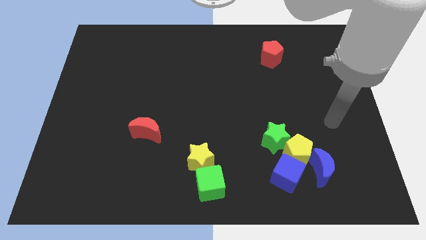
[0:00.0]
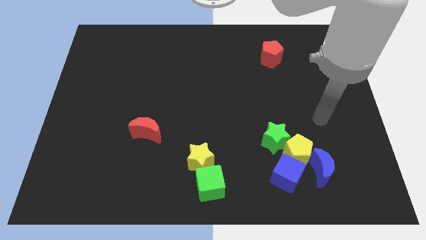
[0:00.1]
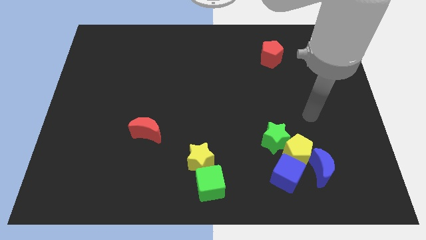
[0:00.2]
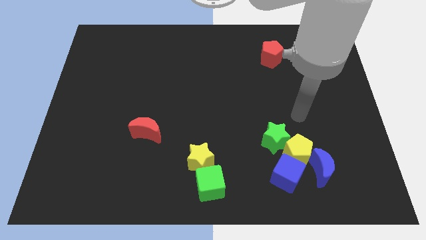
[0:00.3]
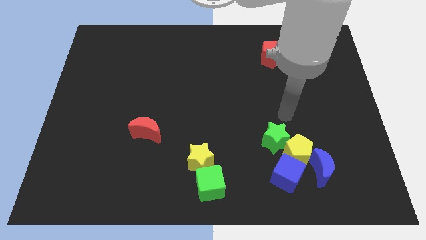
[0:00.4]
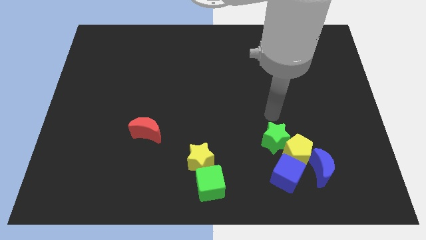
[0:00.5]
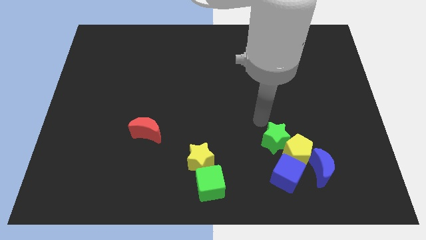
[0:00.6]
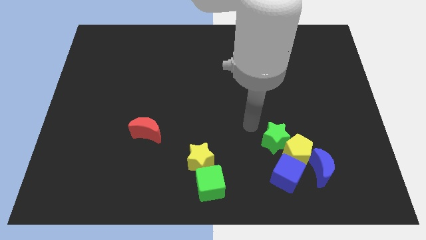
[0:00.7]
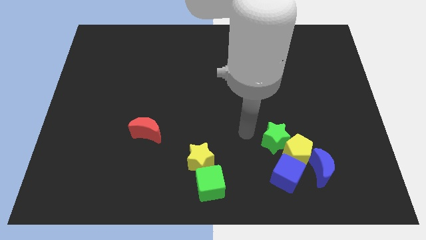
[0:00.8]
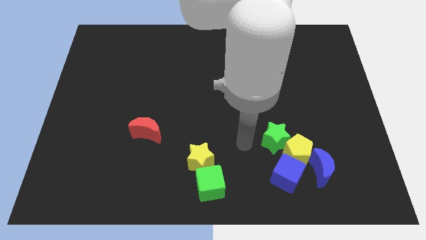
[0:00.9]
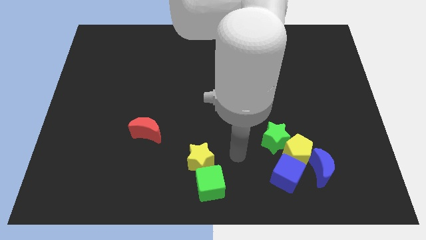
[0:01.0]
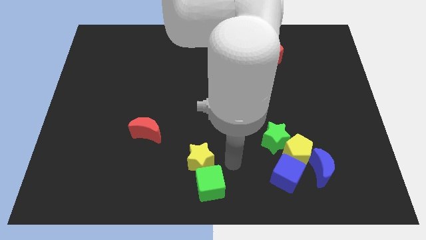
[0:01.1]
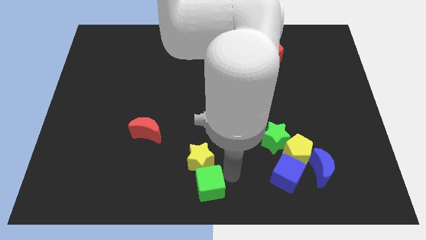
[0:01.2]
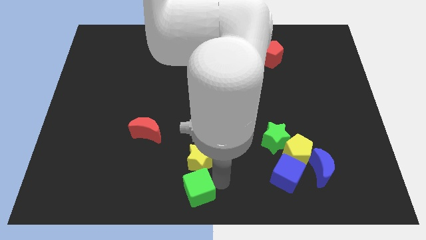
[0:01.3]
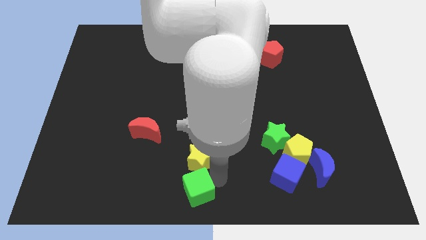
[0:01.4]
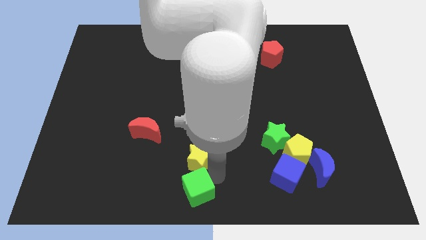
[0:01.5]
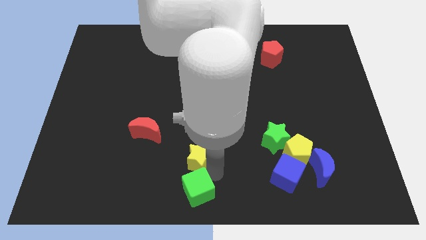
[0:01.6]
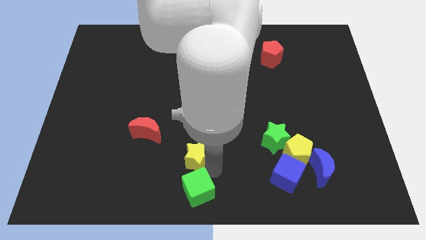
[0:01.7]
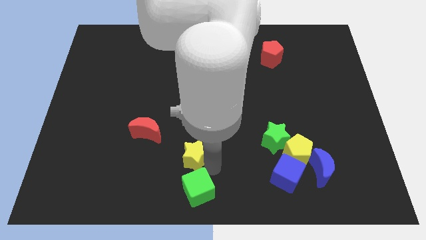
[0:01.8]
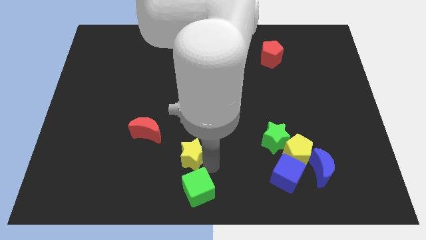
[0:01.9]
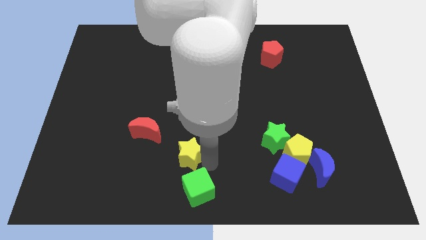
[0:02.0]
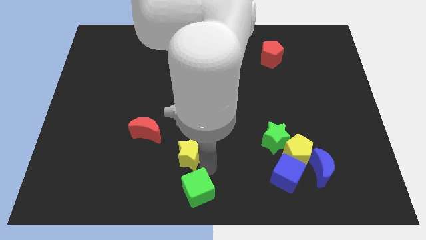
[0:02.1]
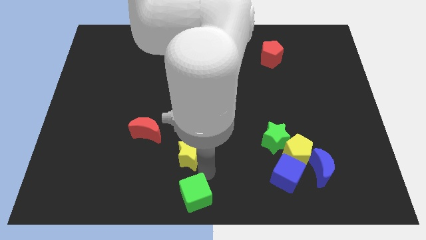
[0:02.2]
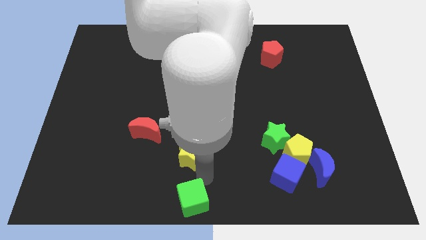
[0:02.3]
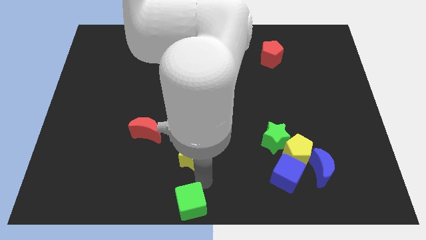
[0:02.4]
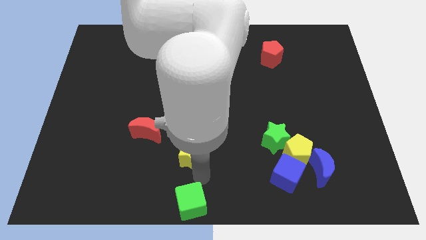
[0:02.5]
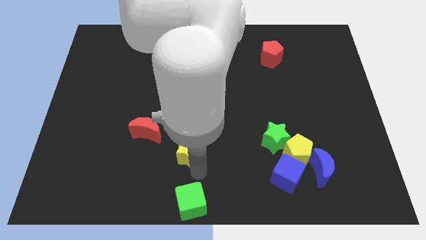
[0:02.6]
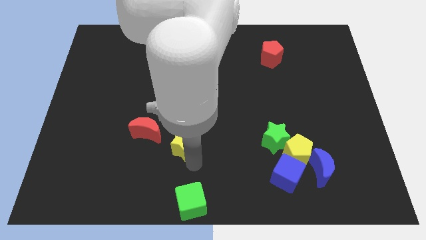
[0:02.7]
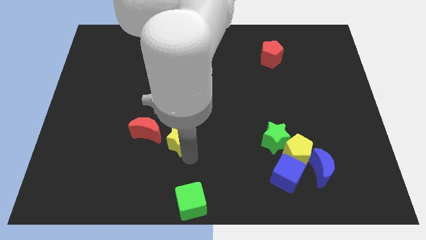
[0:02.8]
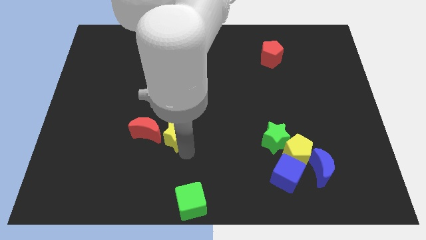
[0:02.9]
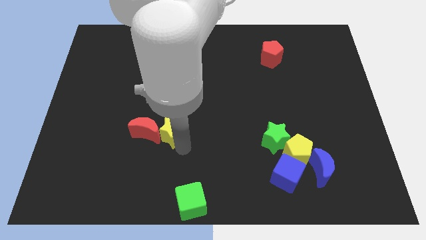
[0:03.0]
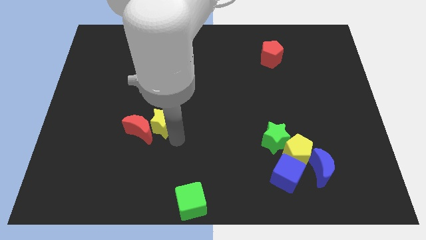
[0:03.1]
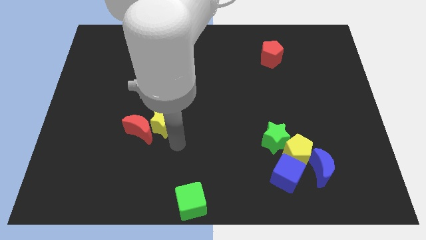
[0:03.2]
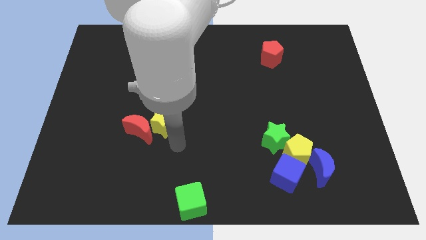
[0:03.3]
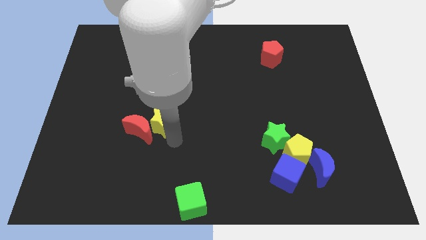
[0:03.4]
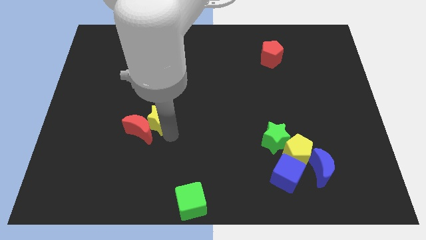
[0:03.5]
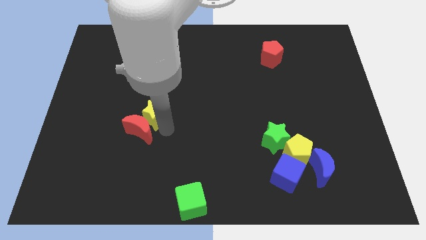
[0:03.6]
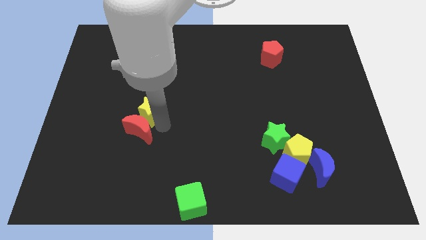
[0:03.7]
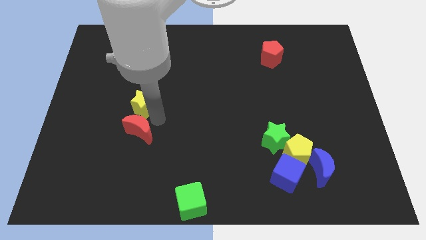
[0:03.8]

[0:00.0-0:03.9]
slide the yellow star up and then left

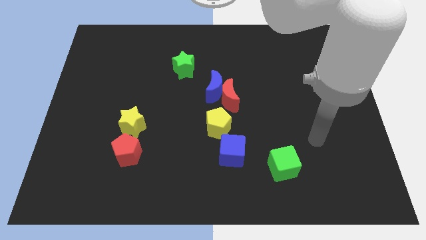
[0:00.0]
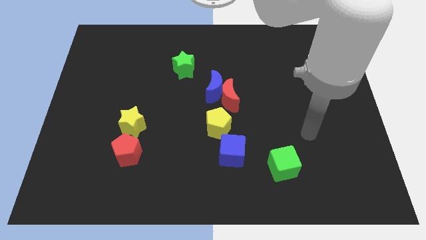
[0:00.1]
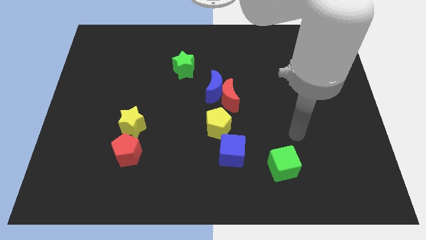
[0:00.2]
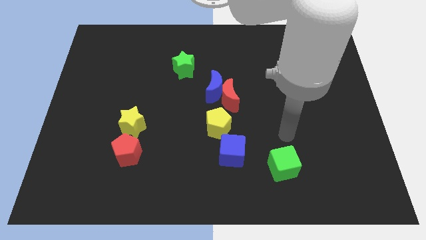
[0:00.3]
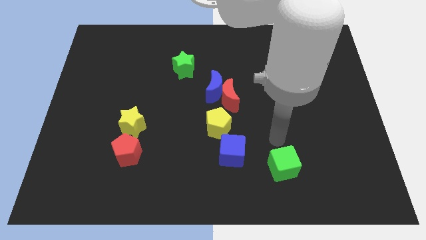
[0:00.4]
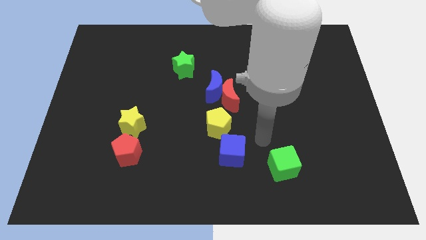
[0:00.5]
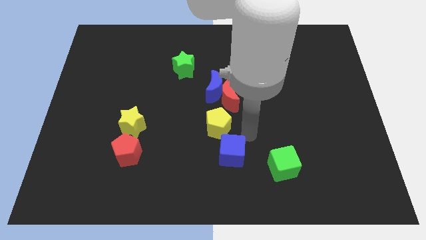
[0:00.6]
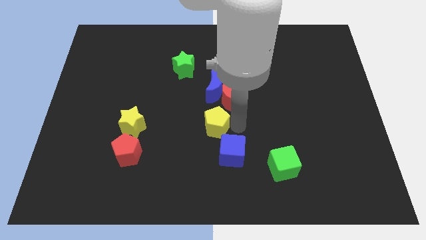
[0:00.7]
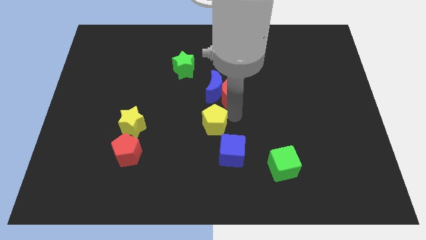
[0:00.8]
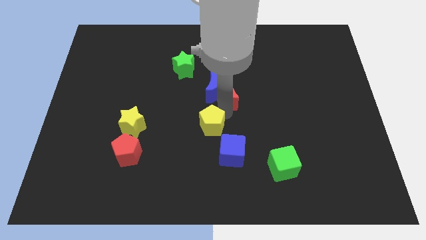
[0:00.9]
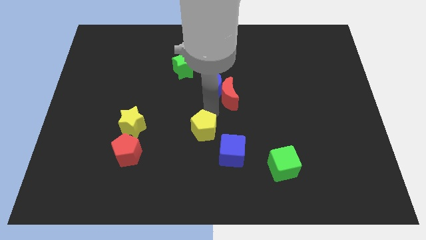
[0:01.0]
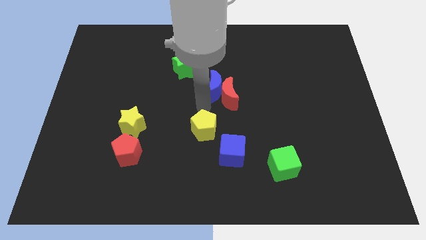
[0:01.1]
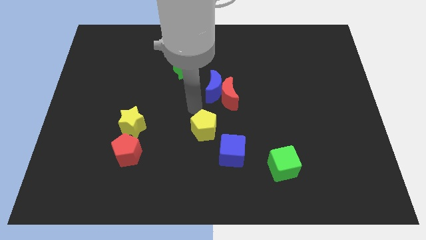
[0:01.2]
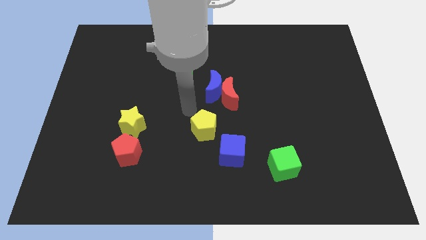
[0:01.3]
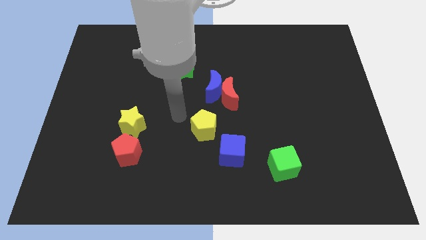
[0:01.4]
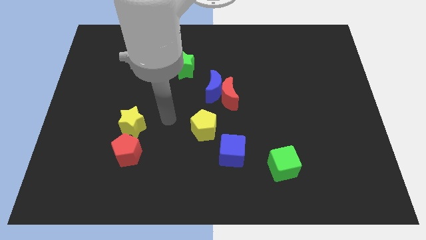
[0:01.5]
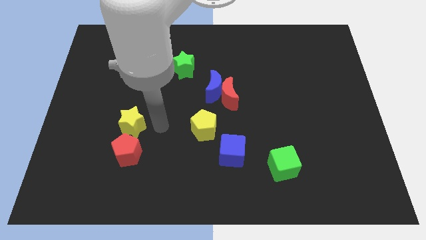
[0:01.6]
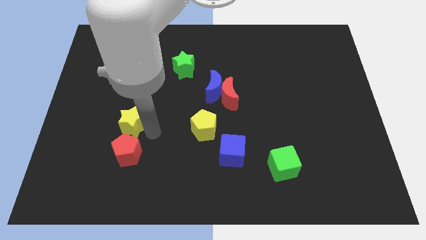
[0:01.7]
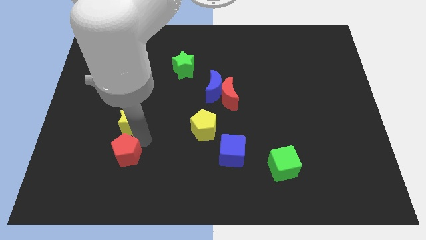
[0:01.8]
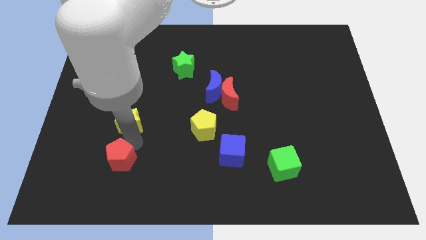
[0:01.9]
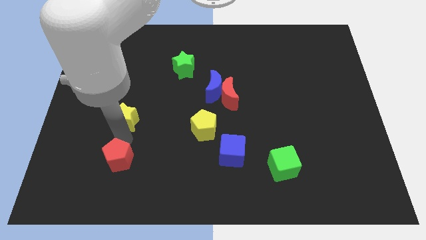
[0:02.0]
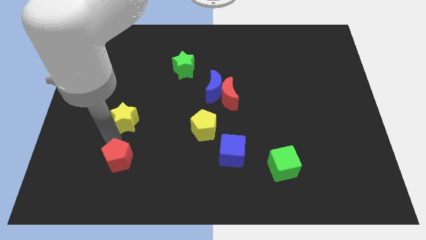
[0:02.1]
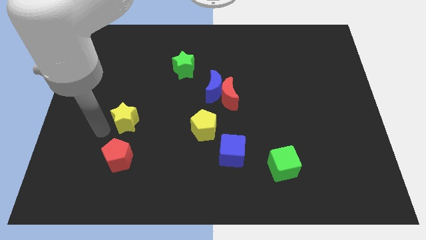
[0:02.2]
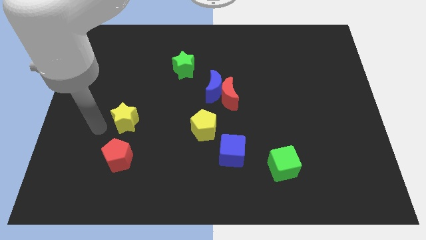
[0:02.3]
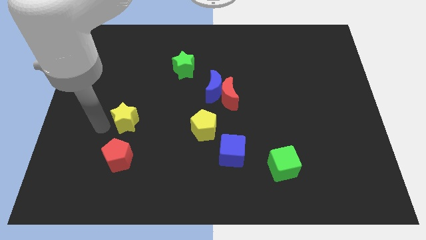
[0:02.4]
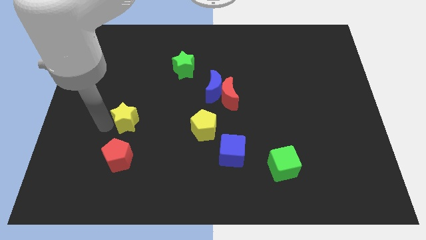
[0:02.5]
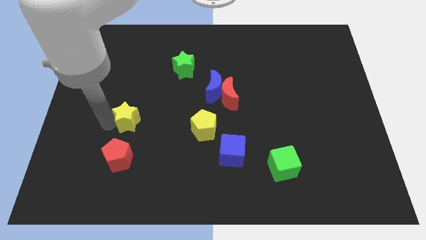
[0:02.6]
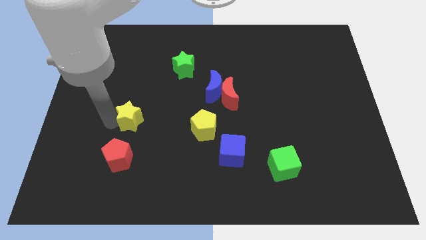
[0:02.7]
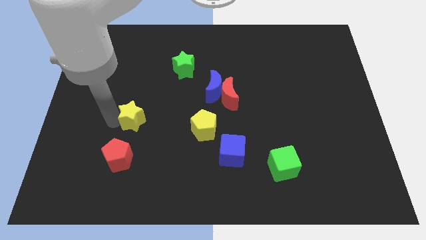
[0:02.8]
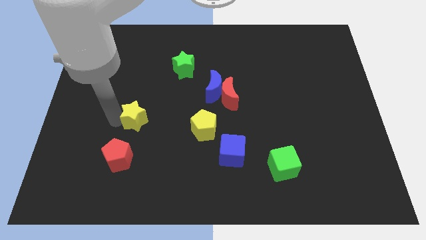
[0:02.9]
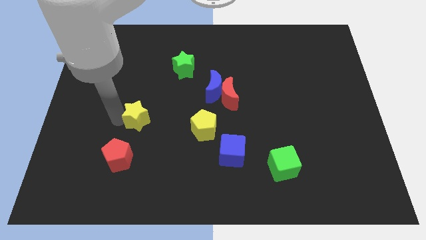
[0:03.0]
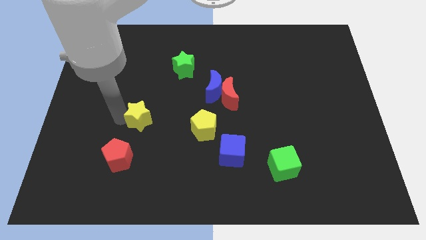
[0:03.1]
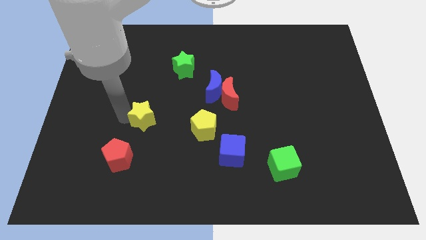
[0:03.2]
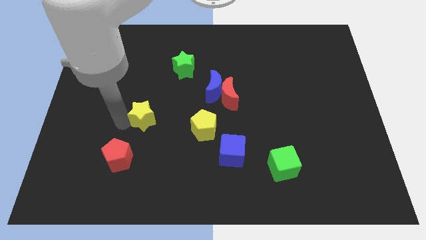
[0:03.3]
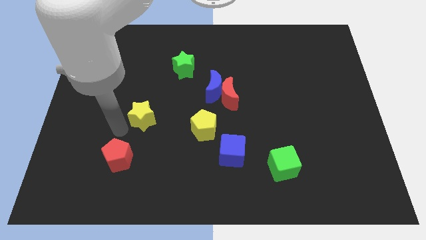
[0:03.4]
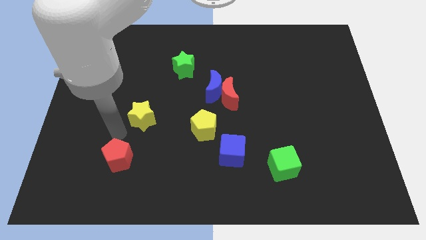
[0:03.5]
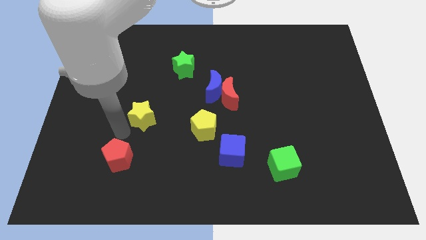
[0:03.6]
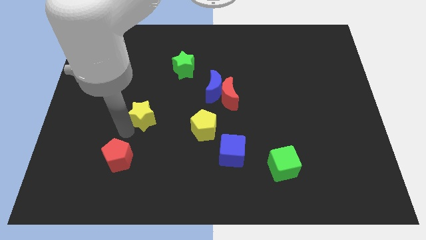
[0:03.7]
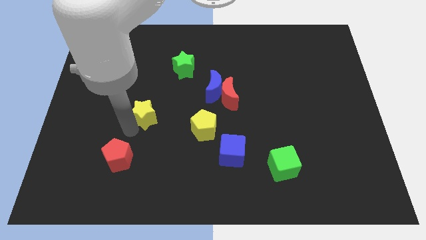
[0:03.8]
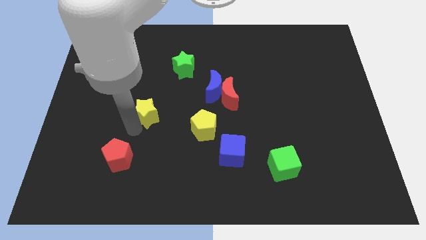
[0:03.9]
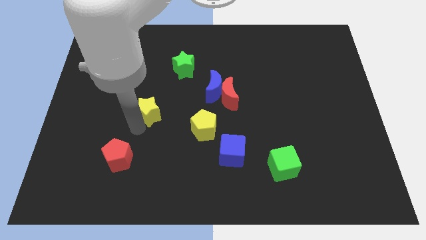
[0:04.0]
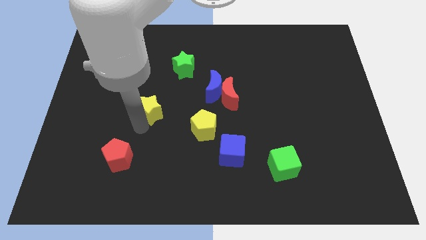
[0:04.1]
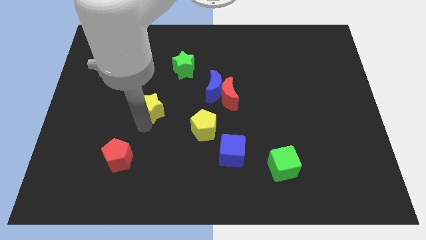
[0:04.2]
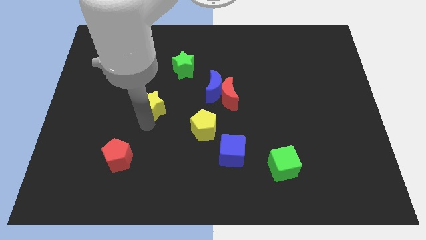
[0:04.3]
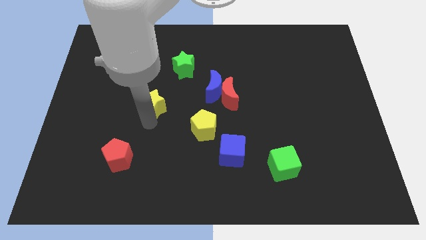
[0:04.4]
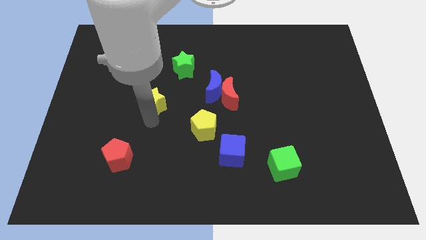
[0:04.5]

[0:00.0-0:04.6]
slightly move the yellow star upwards and to the right diagonally
